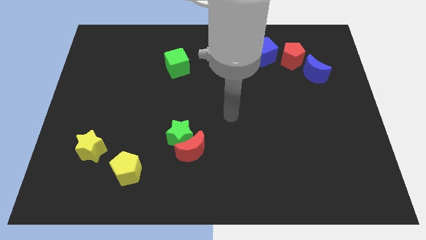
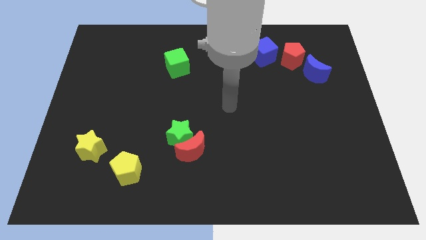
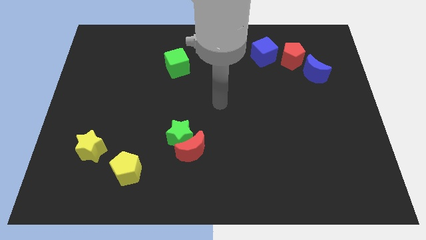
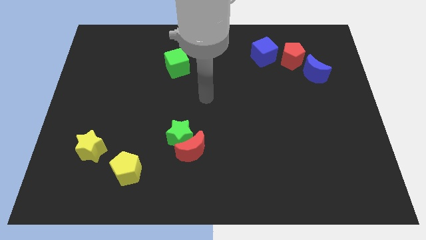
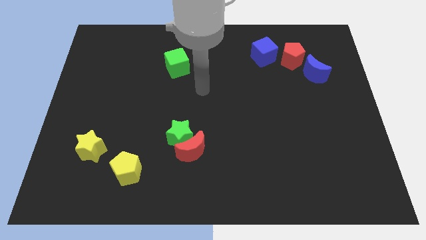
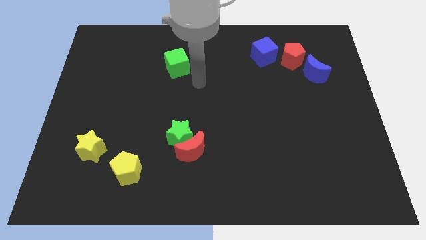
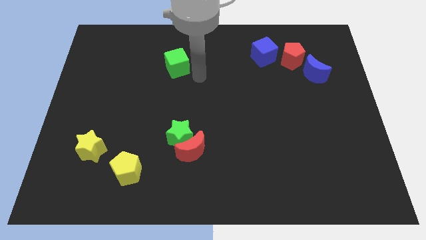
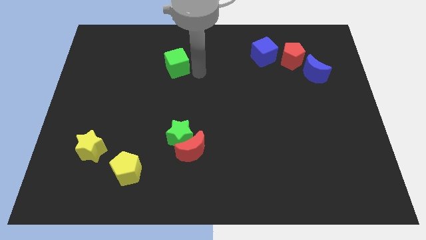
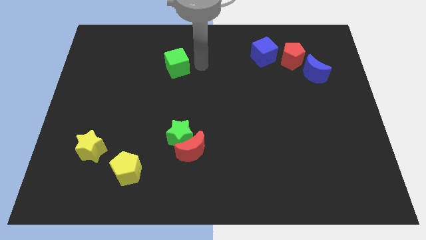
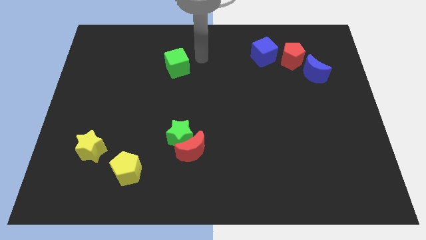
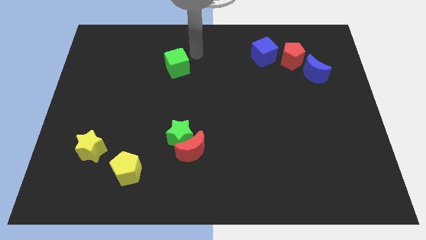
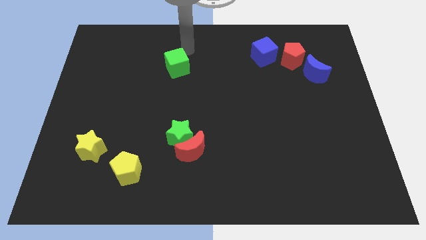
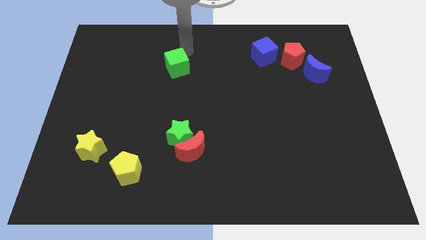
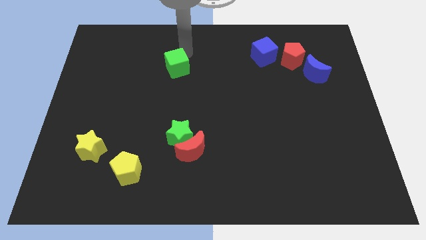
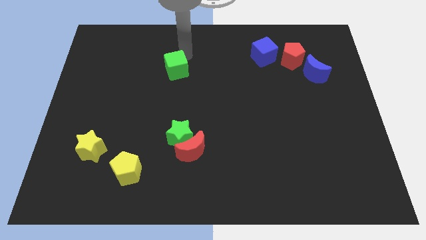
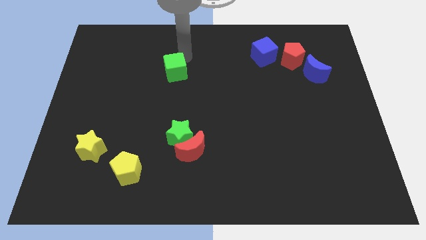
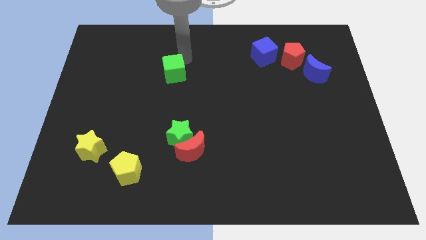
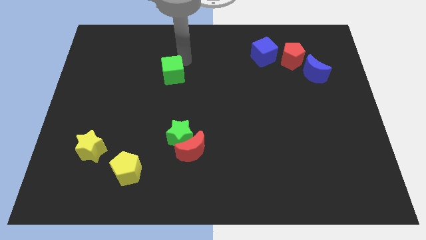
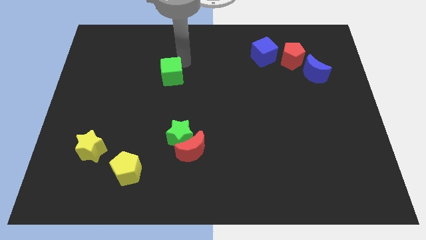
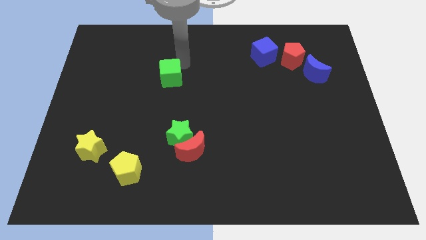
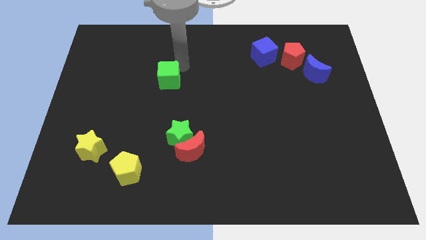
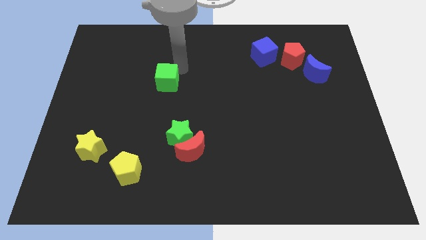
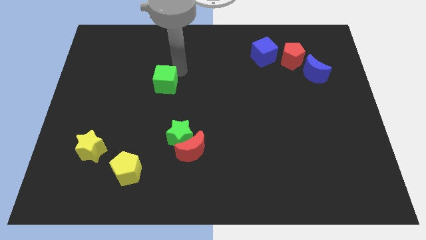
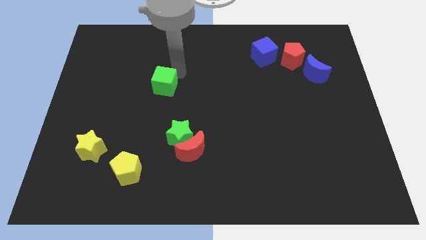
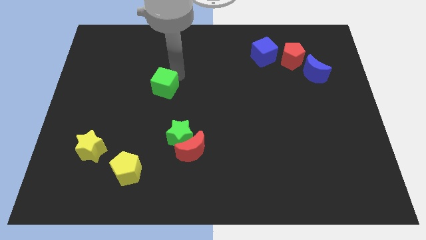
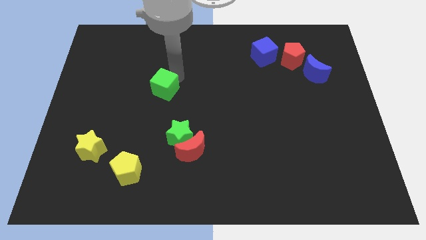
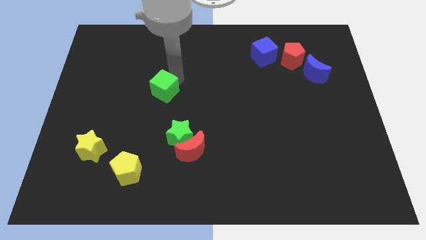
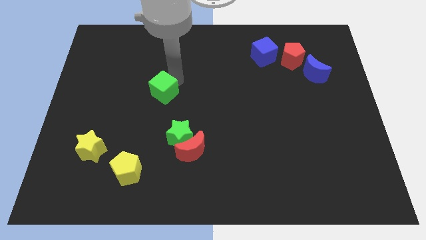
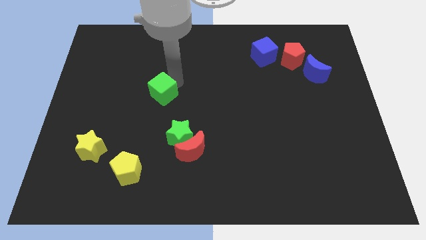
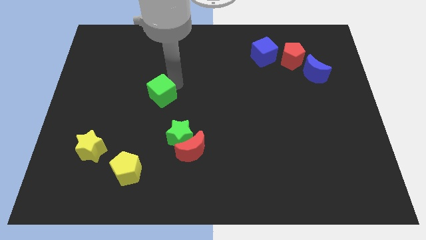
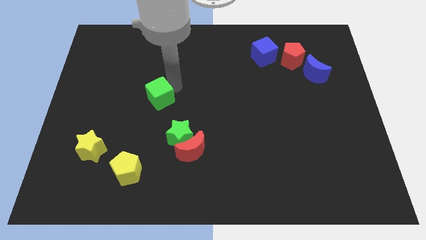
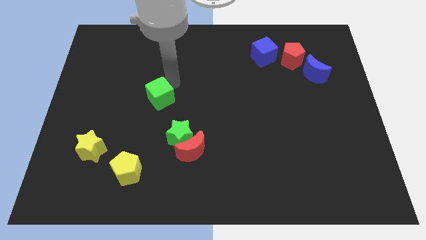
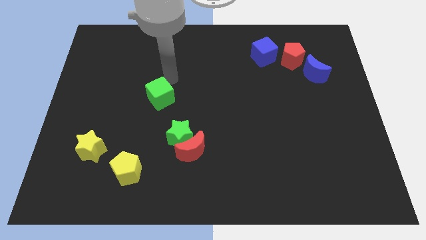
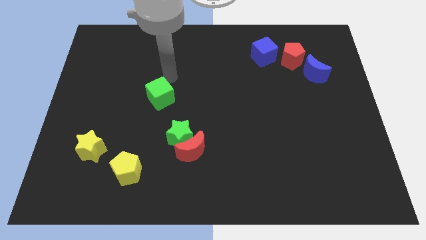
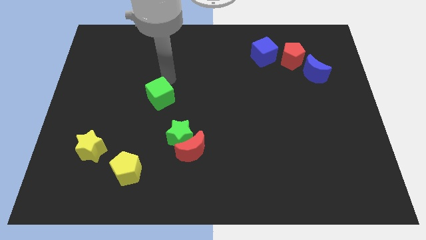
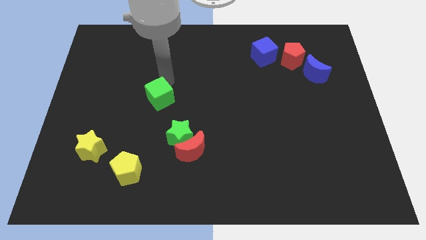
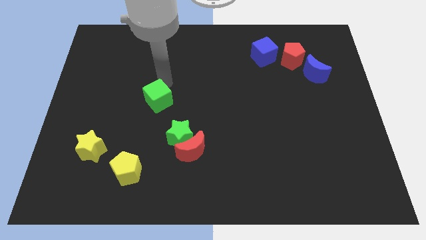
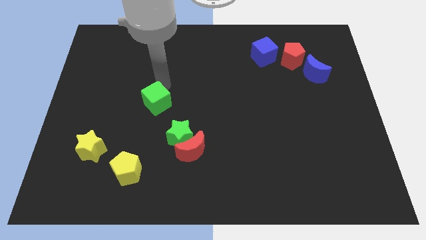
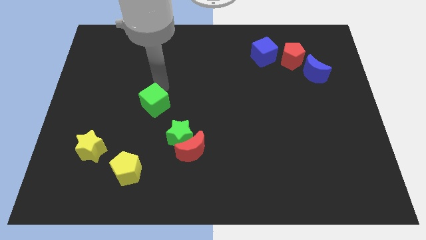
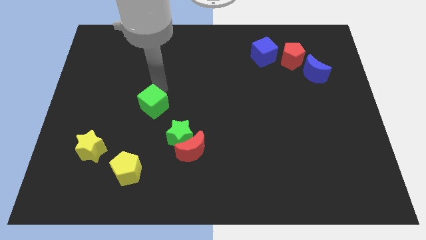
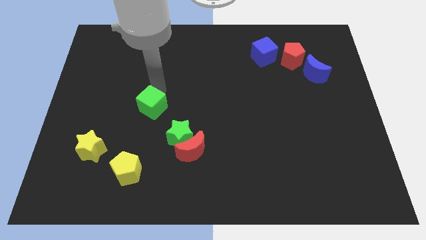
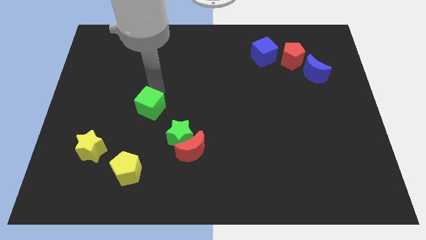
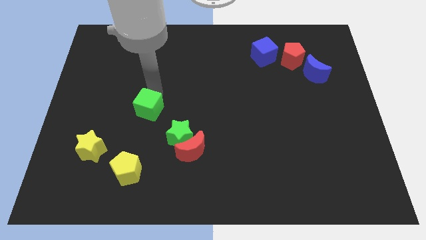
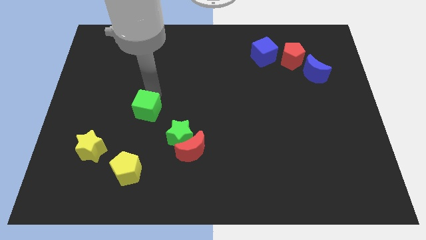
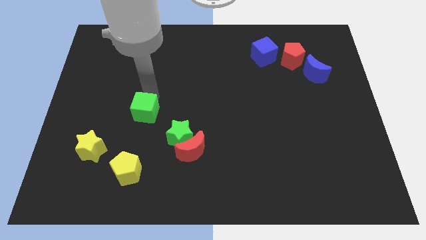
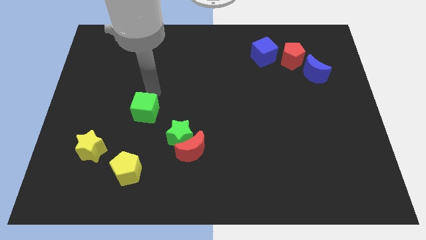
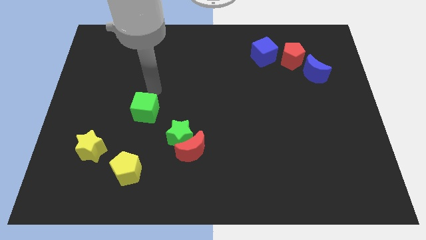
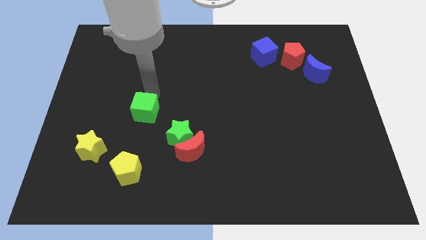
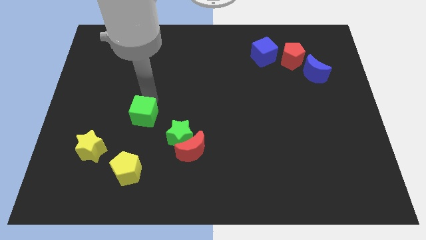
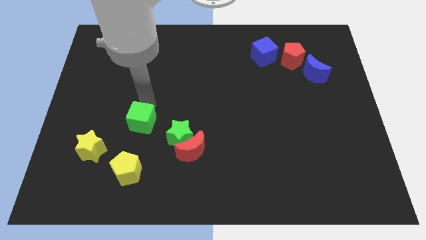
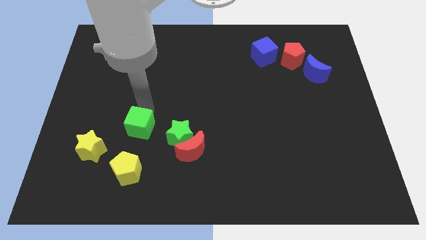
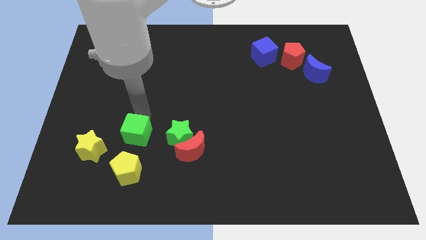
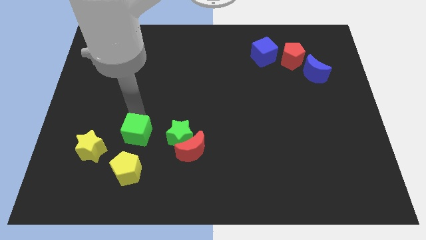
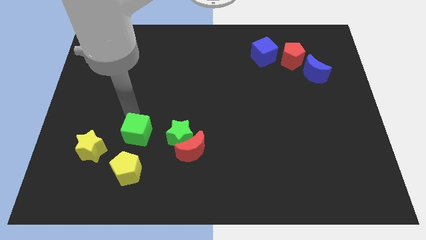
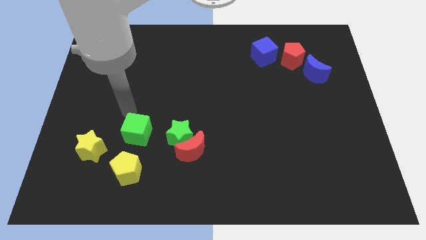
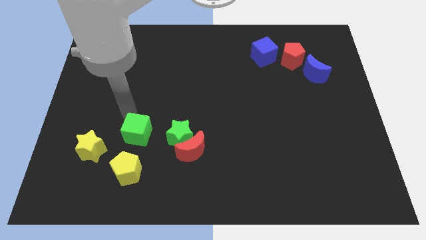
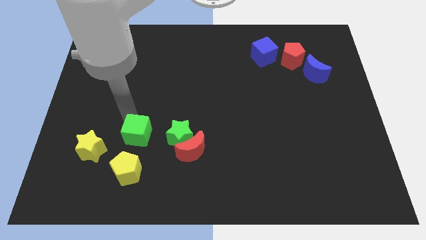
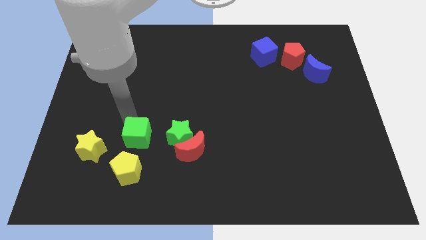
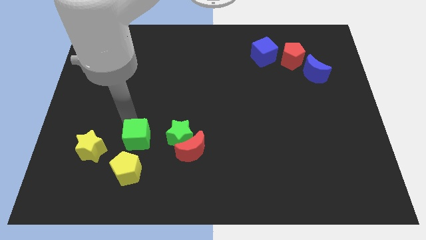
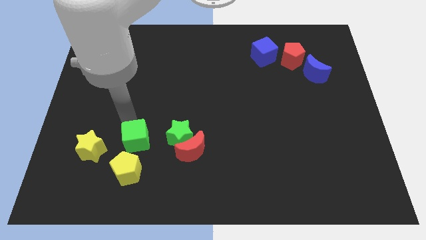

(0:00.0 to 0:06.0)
slide the green cube downwards

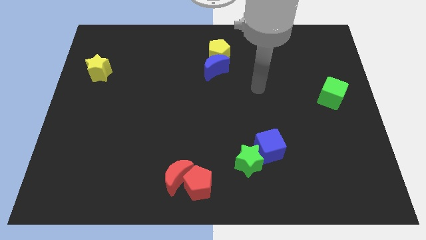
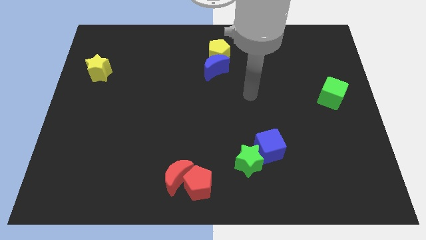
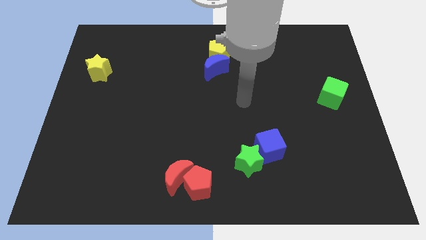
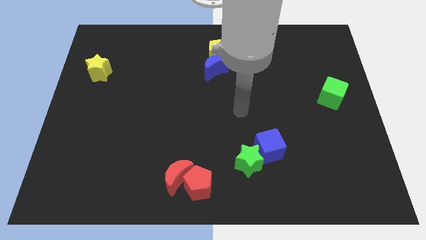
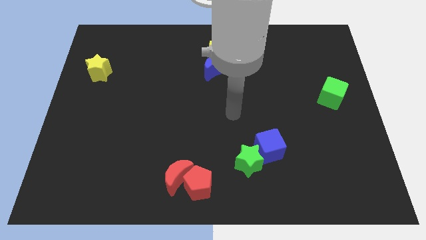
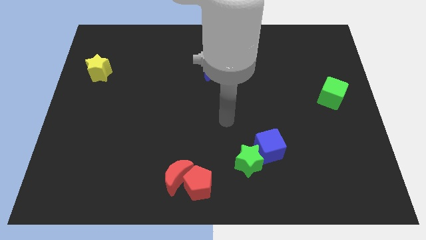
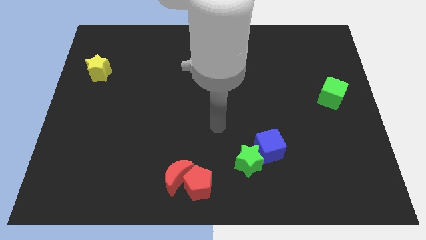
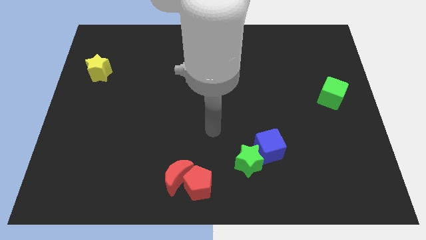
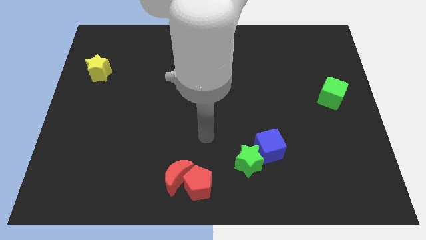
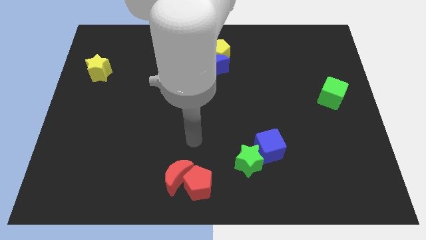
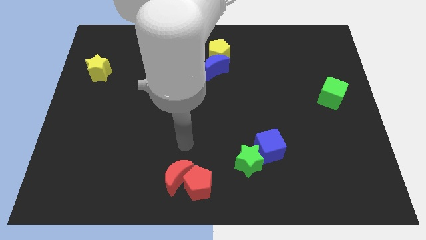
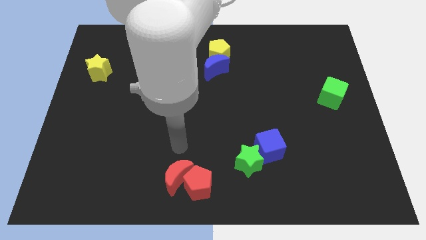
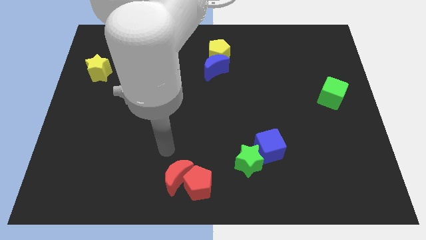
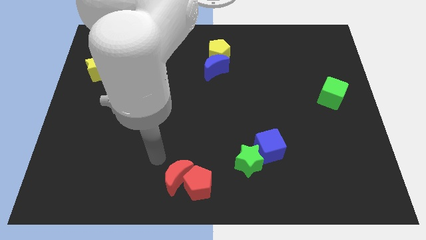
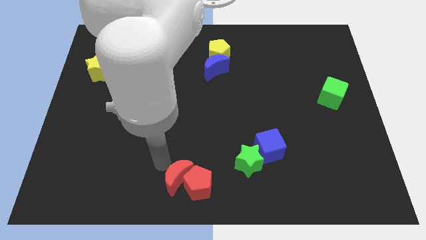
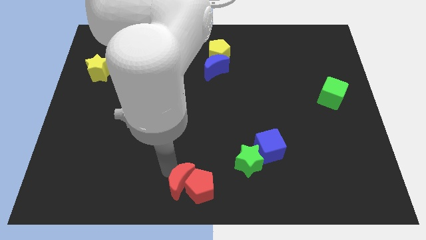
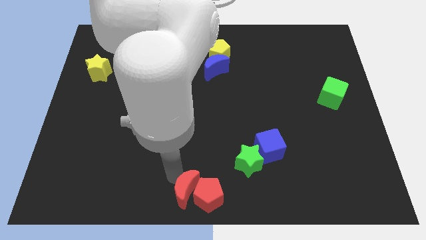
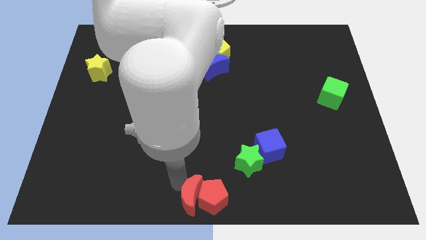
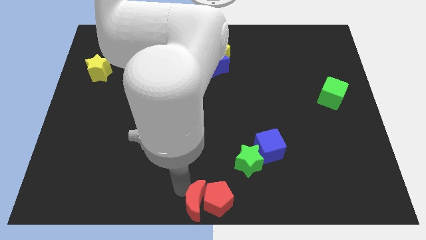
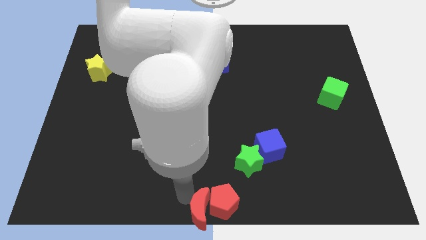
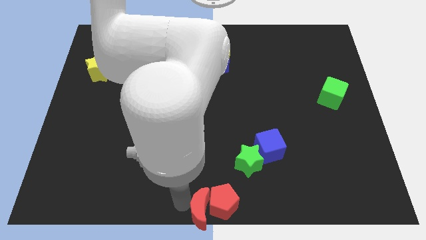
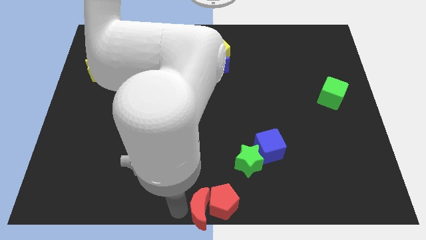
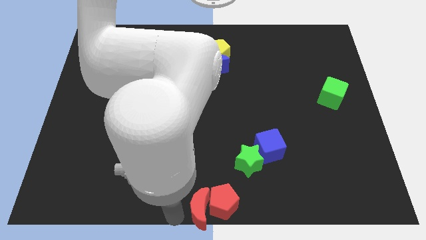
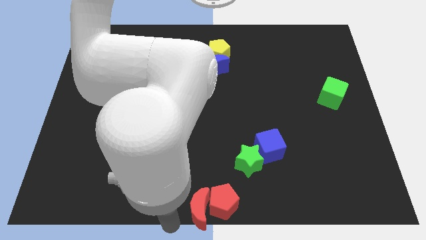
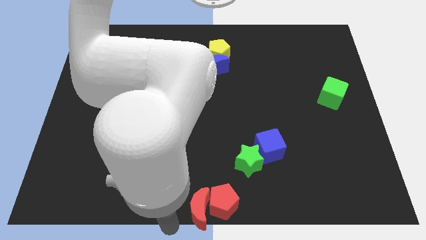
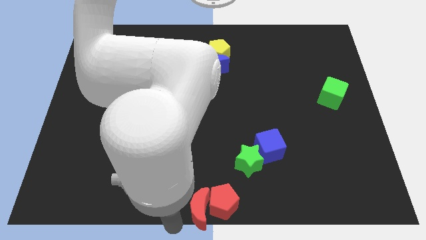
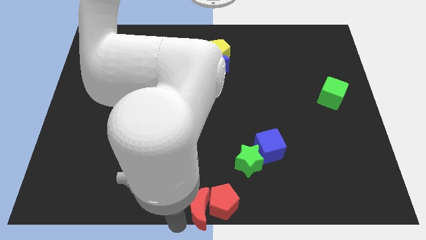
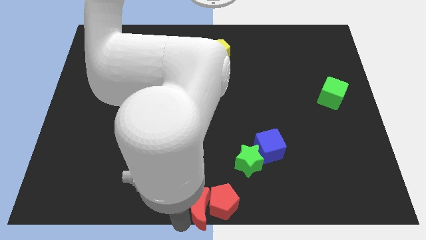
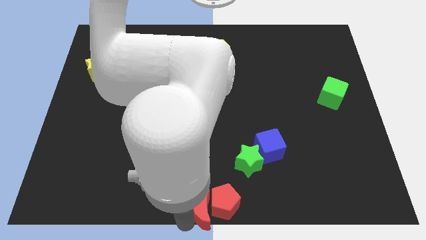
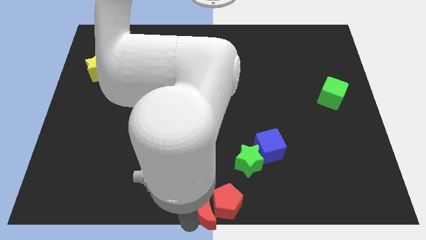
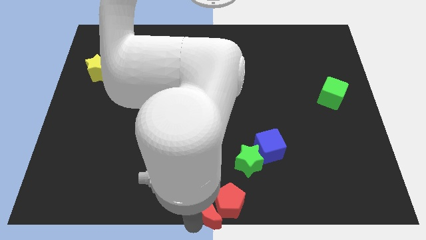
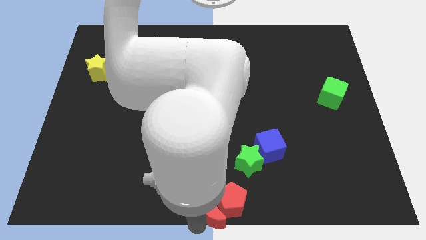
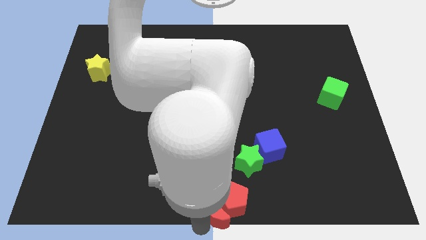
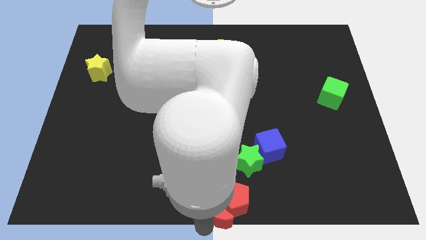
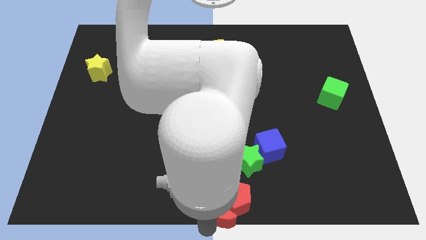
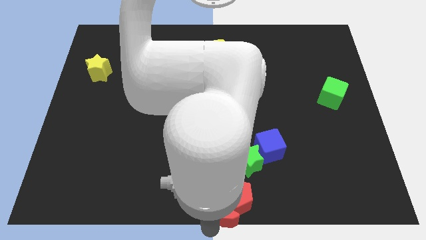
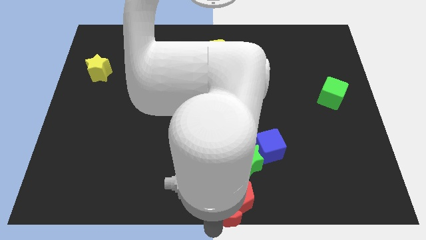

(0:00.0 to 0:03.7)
slide the red moon right a little
